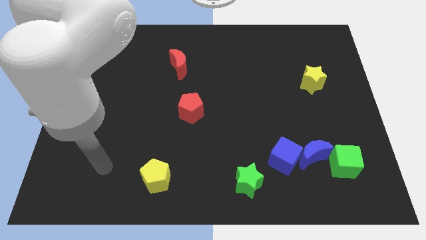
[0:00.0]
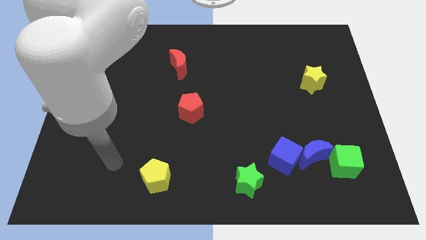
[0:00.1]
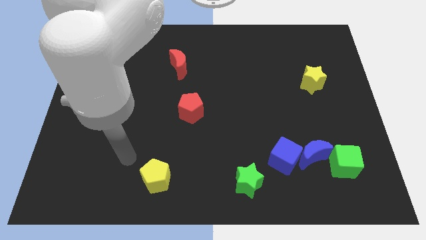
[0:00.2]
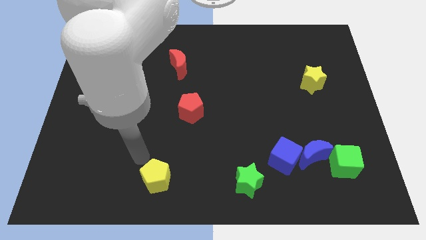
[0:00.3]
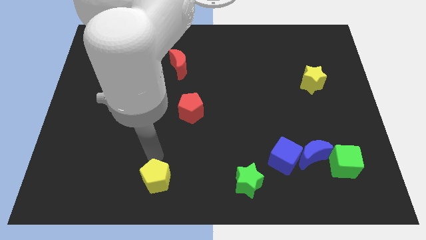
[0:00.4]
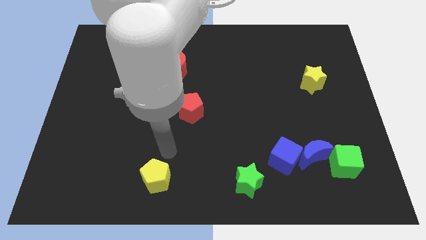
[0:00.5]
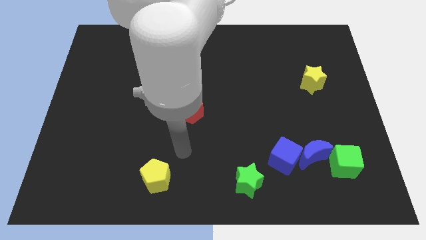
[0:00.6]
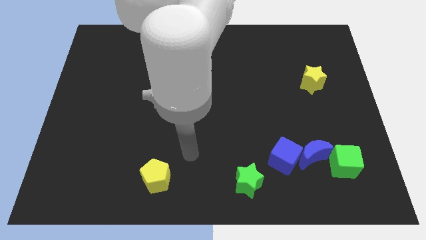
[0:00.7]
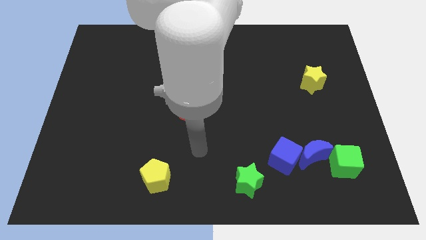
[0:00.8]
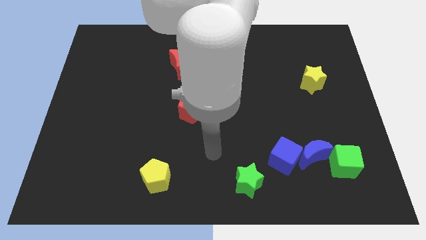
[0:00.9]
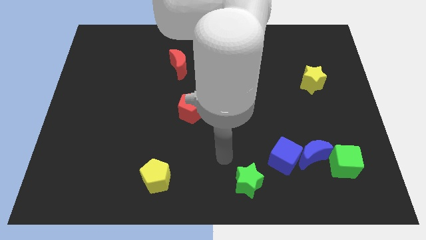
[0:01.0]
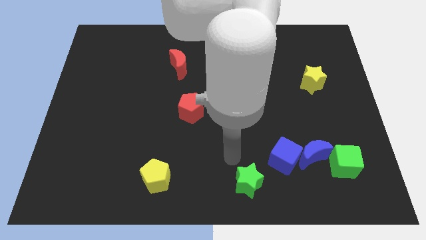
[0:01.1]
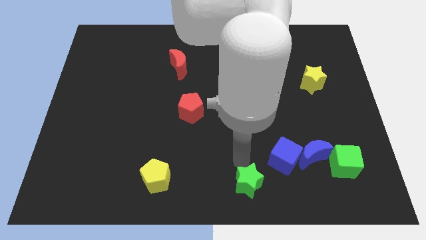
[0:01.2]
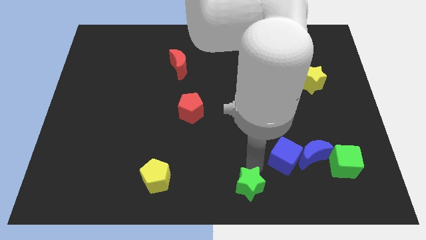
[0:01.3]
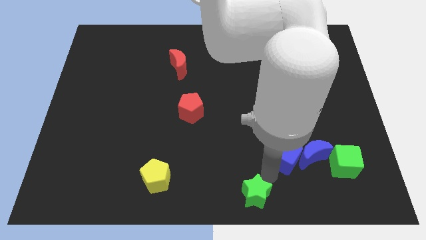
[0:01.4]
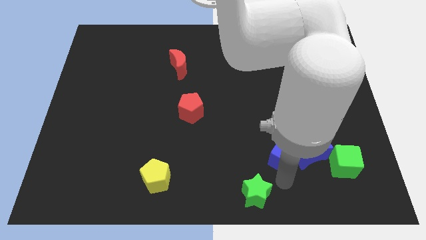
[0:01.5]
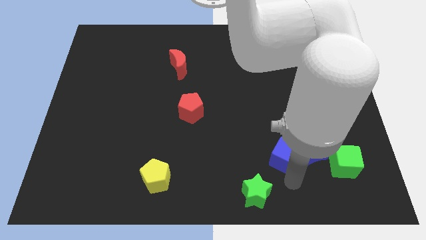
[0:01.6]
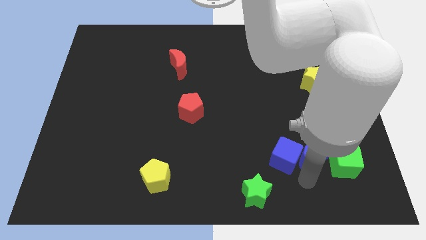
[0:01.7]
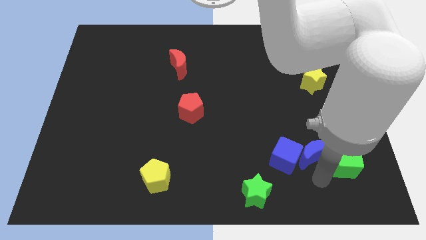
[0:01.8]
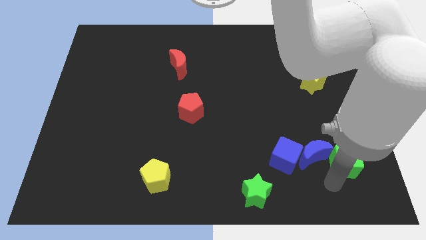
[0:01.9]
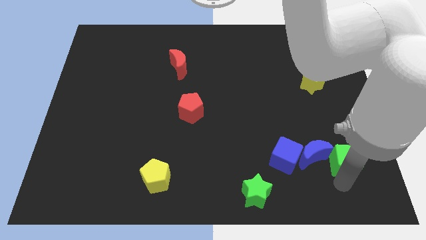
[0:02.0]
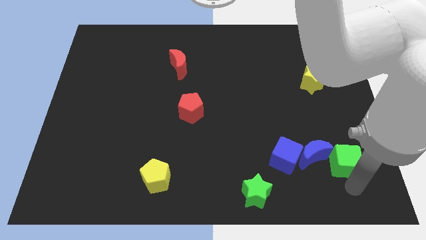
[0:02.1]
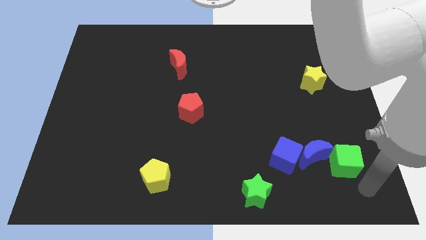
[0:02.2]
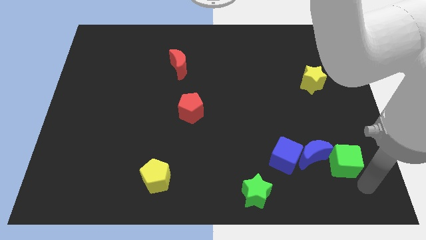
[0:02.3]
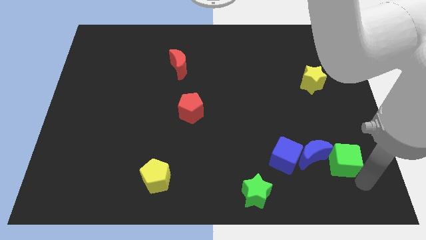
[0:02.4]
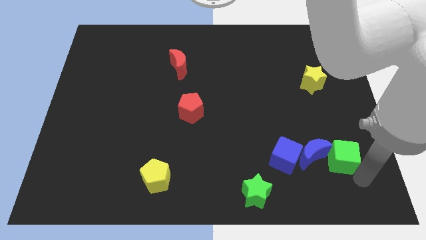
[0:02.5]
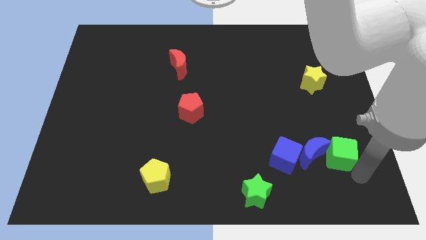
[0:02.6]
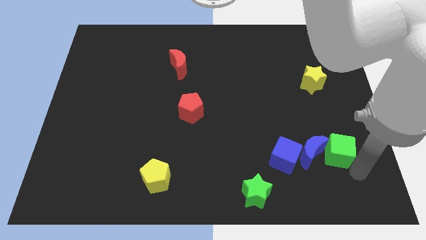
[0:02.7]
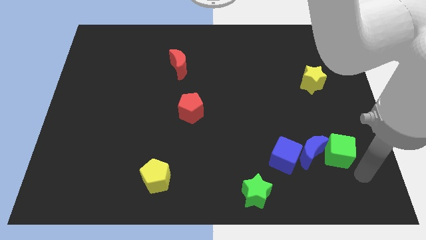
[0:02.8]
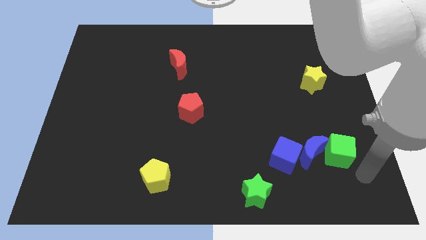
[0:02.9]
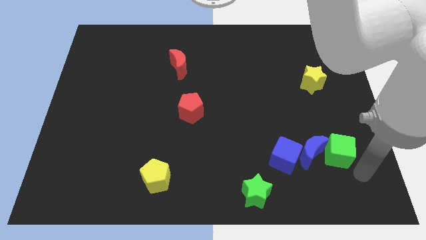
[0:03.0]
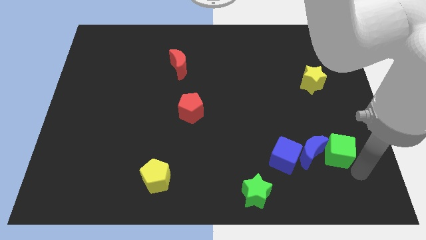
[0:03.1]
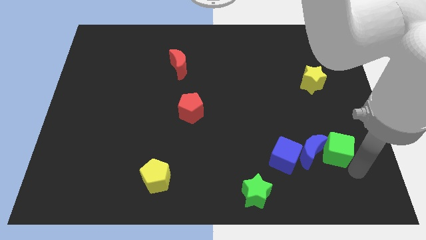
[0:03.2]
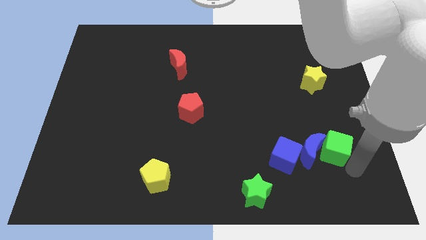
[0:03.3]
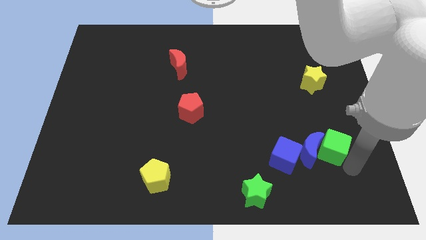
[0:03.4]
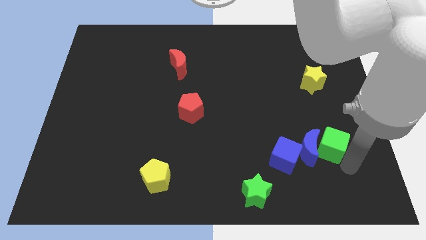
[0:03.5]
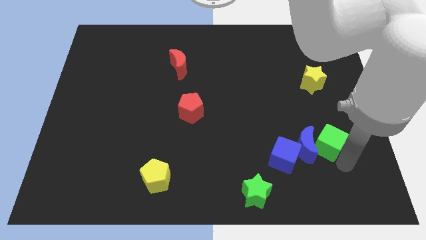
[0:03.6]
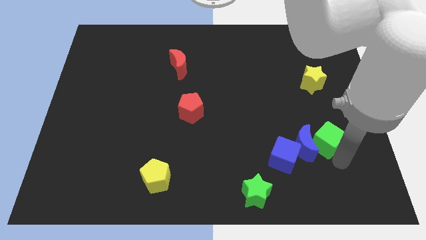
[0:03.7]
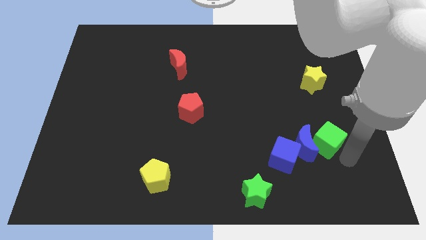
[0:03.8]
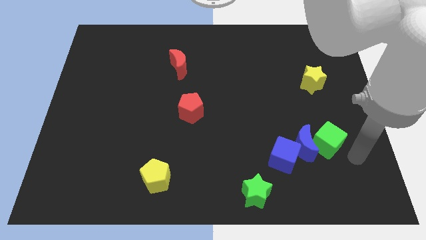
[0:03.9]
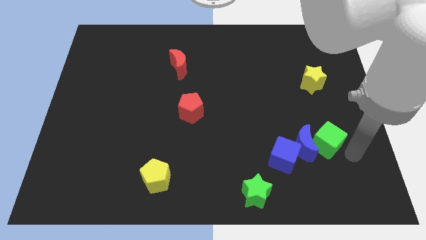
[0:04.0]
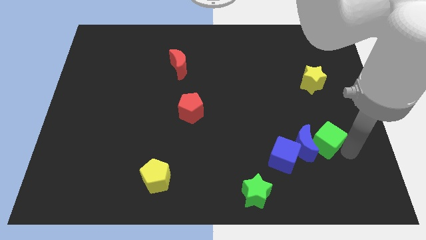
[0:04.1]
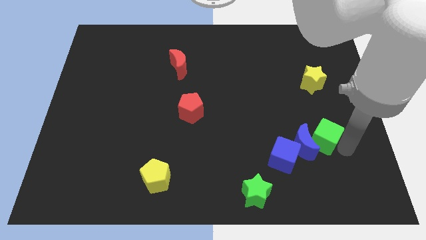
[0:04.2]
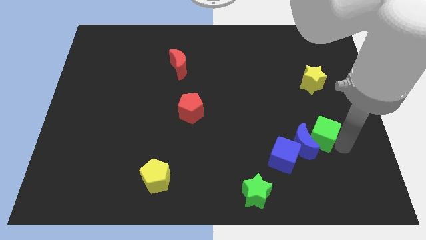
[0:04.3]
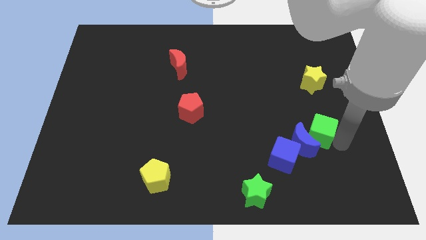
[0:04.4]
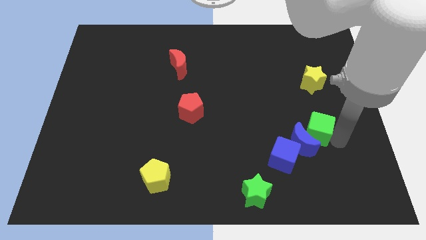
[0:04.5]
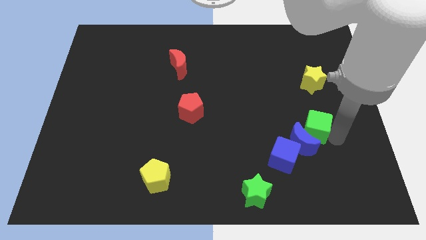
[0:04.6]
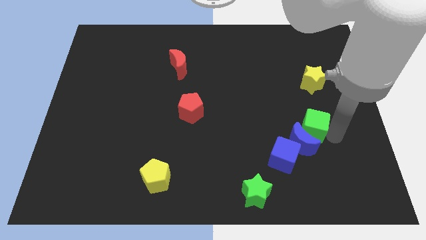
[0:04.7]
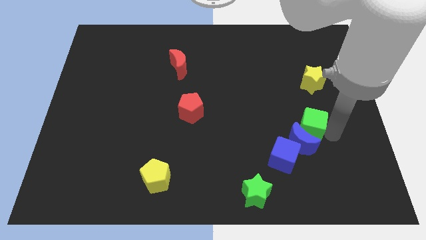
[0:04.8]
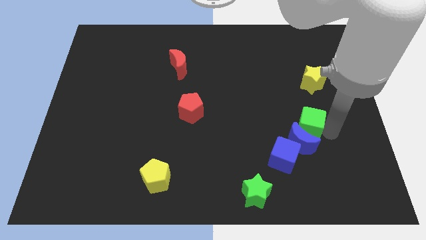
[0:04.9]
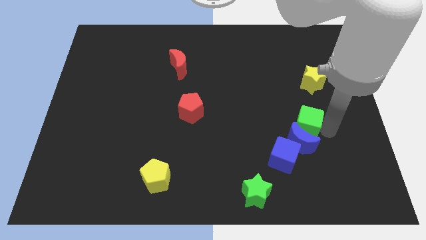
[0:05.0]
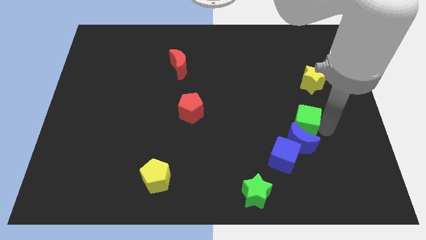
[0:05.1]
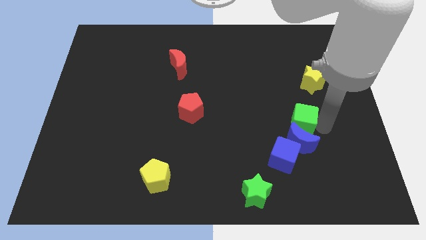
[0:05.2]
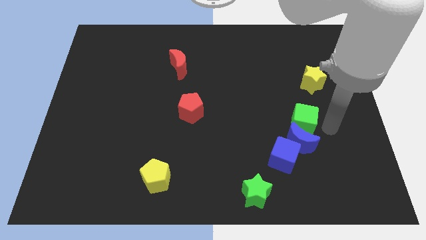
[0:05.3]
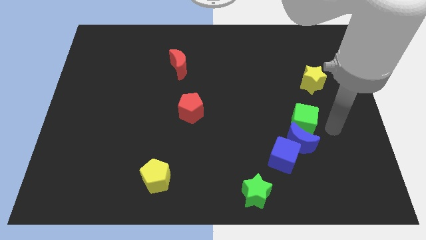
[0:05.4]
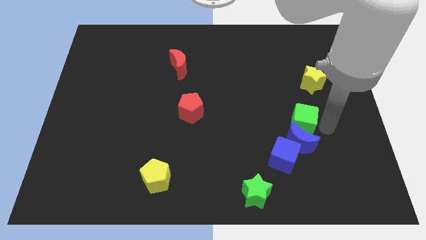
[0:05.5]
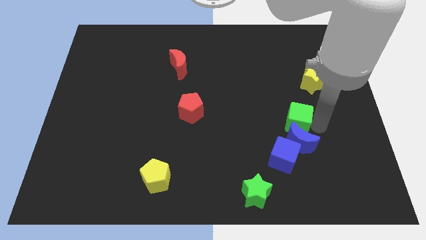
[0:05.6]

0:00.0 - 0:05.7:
move the green cube above the blue cube

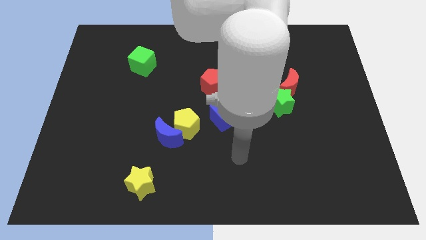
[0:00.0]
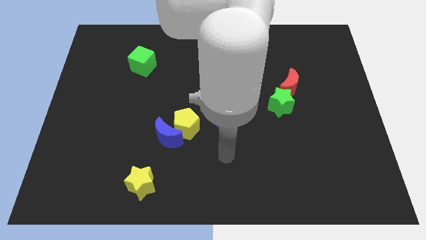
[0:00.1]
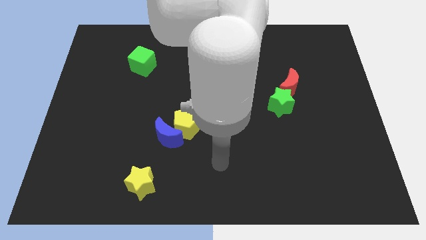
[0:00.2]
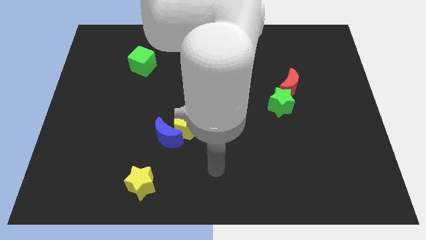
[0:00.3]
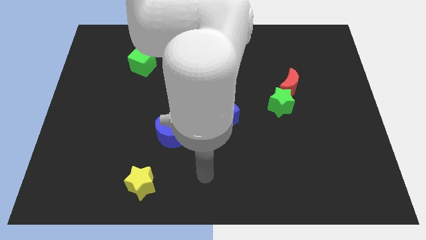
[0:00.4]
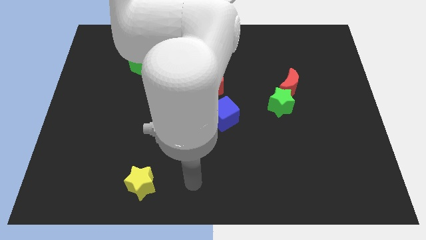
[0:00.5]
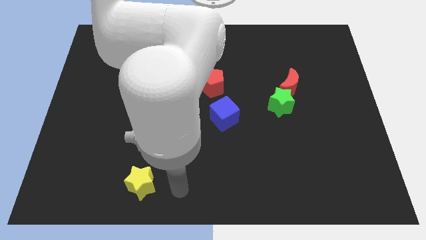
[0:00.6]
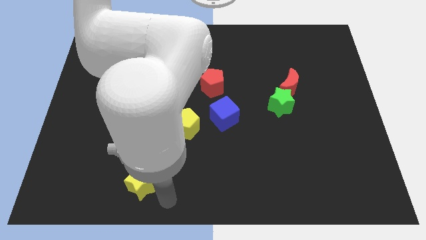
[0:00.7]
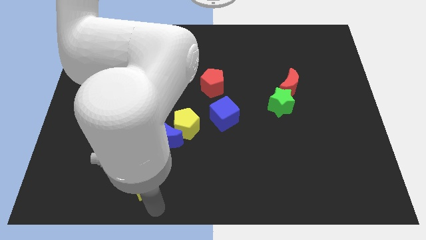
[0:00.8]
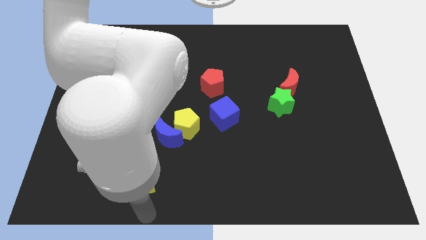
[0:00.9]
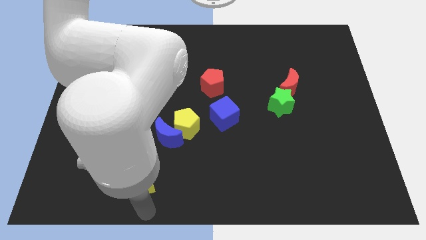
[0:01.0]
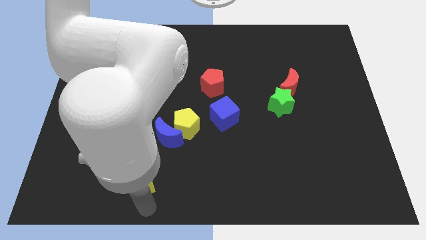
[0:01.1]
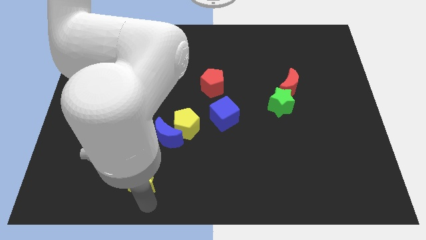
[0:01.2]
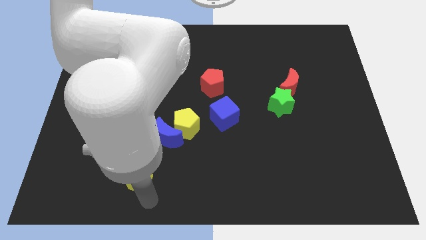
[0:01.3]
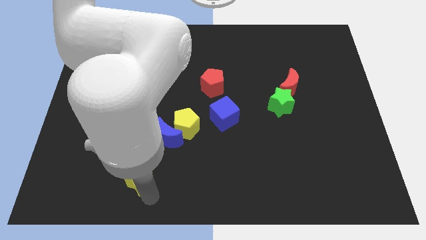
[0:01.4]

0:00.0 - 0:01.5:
push the yellow star to the bottom left of the blue moon

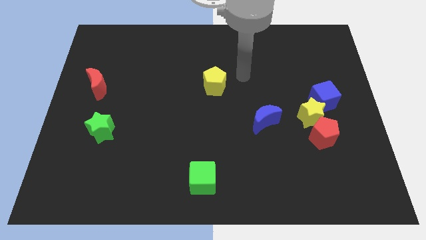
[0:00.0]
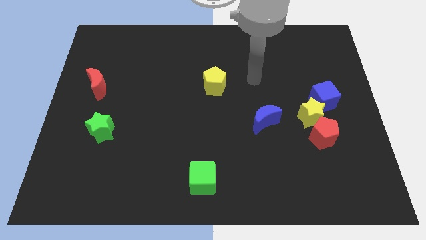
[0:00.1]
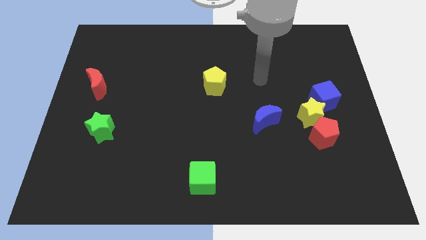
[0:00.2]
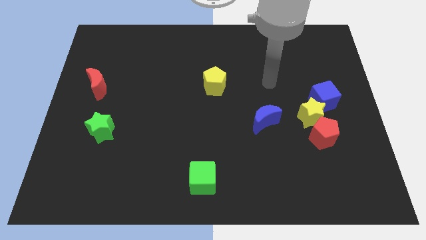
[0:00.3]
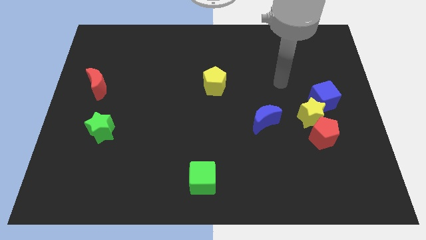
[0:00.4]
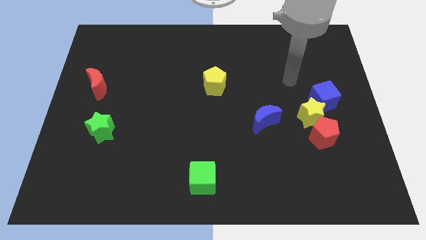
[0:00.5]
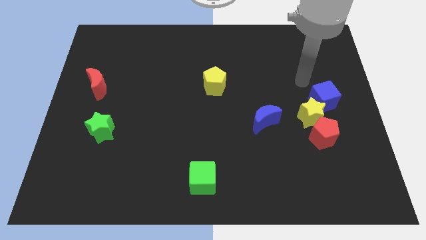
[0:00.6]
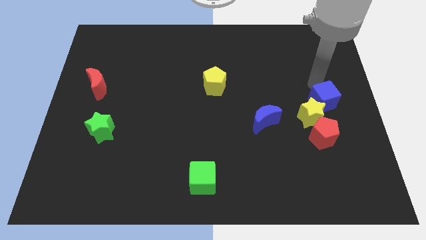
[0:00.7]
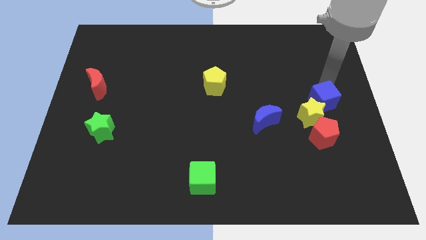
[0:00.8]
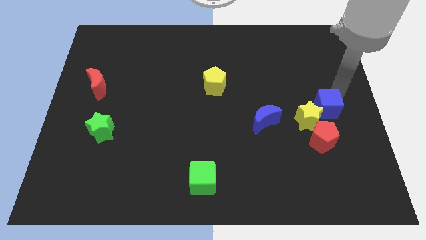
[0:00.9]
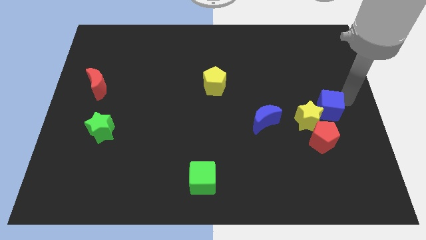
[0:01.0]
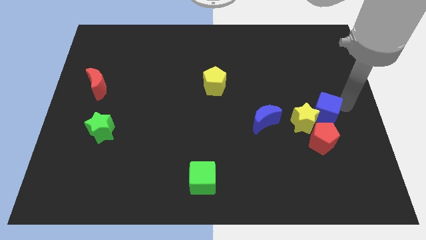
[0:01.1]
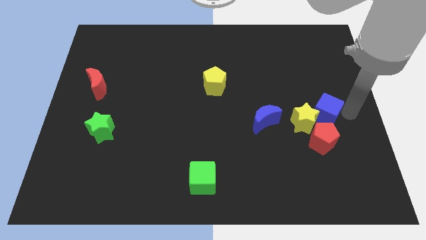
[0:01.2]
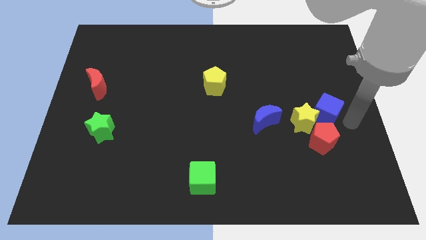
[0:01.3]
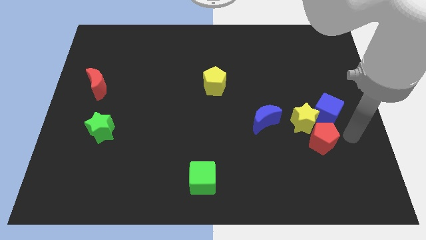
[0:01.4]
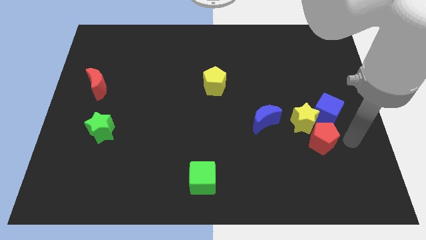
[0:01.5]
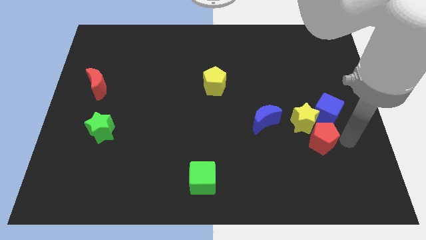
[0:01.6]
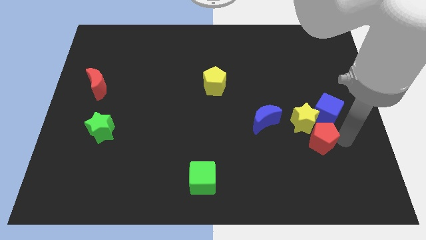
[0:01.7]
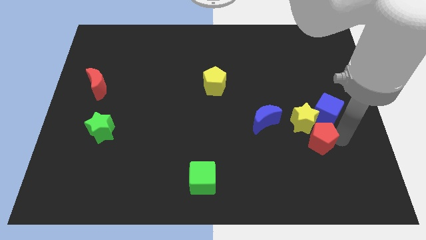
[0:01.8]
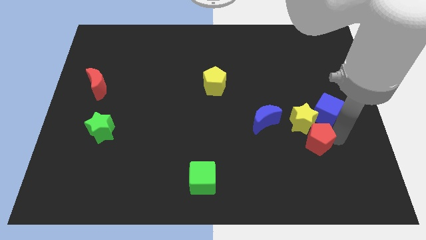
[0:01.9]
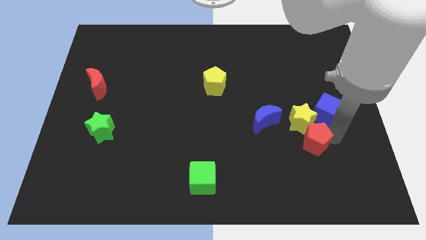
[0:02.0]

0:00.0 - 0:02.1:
slide the red pentagon to the bottom right side of the blue moon
